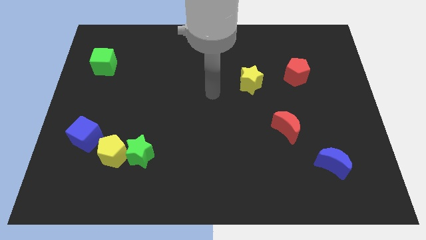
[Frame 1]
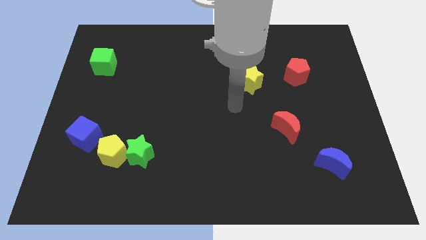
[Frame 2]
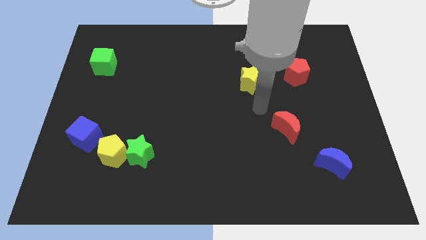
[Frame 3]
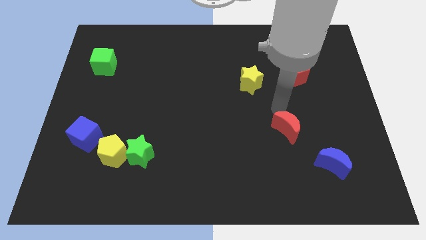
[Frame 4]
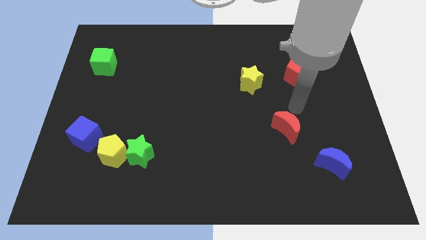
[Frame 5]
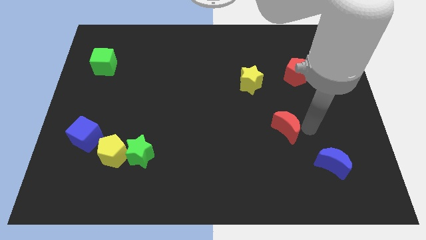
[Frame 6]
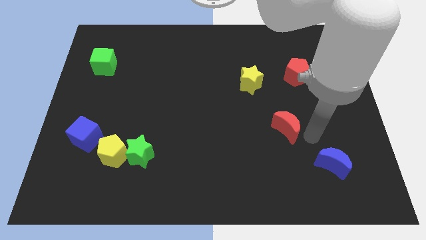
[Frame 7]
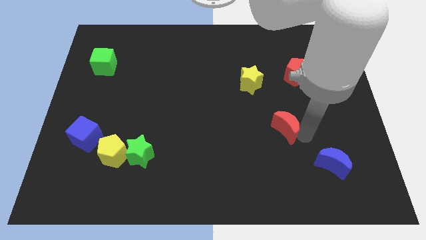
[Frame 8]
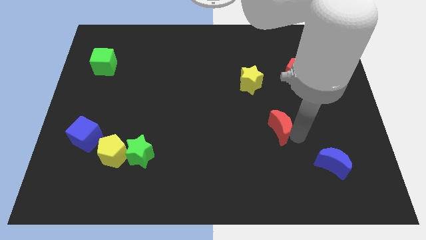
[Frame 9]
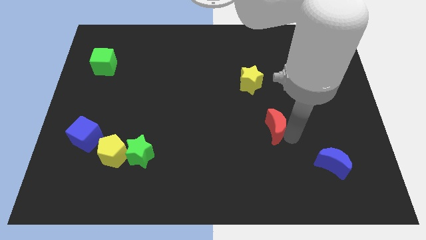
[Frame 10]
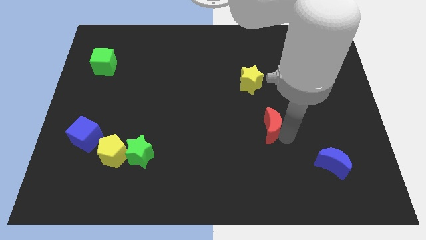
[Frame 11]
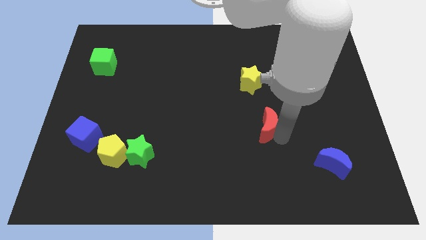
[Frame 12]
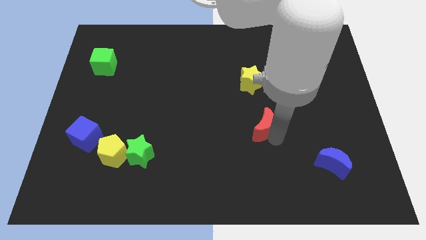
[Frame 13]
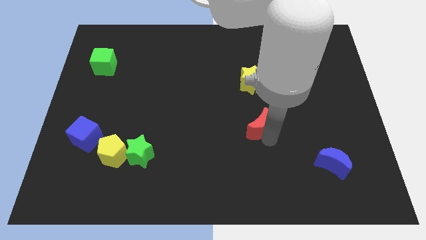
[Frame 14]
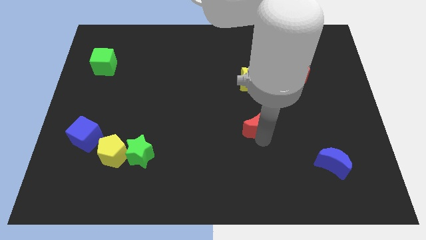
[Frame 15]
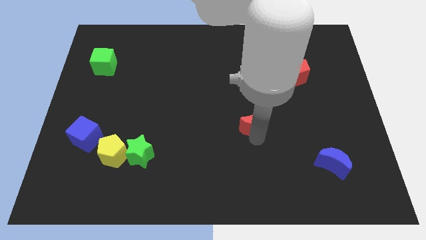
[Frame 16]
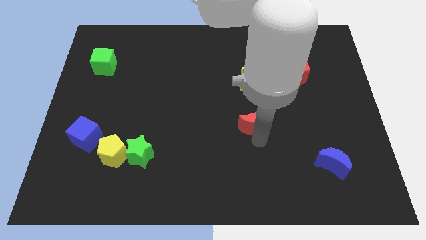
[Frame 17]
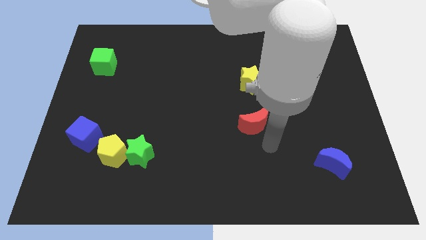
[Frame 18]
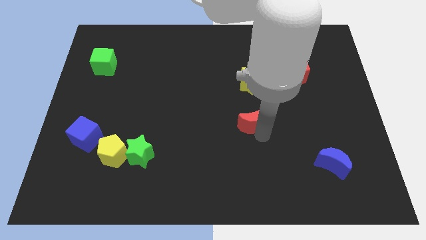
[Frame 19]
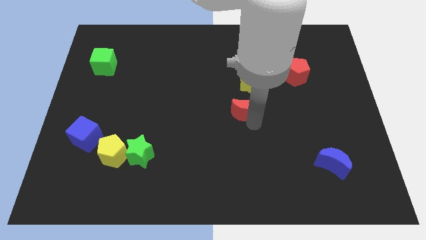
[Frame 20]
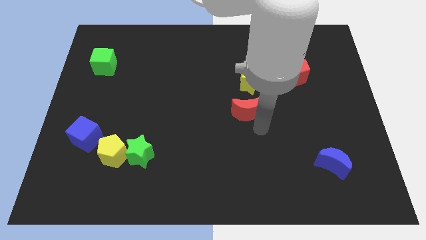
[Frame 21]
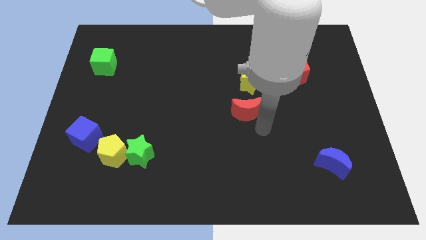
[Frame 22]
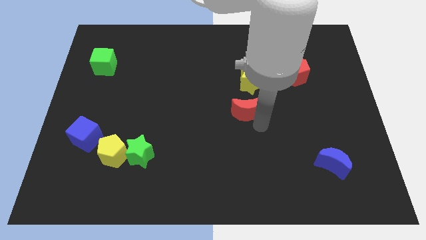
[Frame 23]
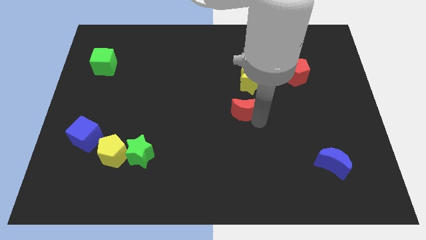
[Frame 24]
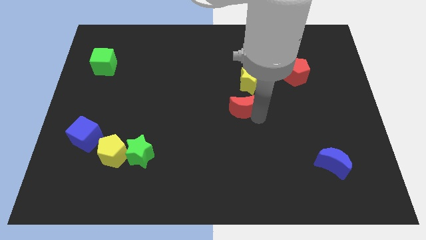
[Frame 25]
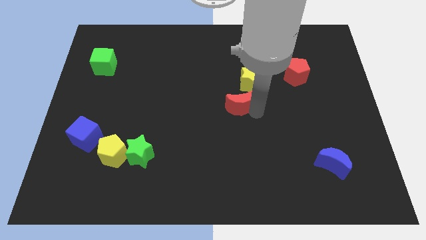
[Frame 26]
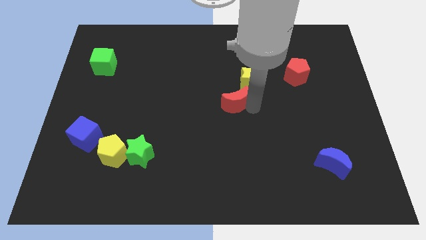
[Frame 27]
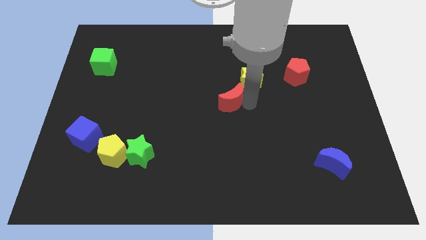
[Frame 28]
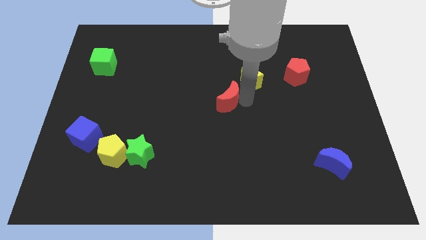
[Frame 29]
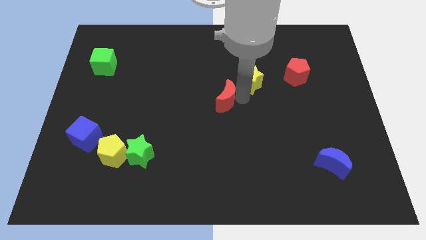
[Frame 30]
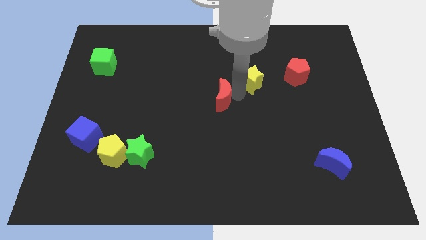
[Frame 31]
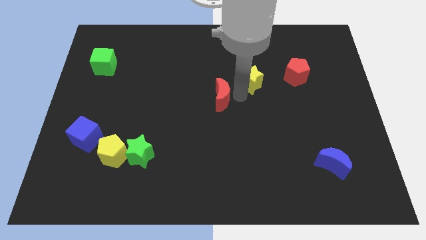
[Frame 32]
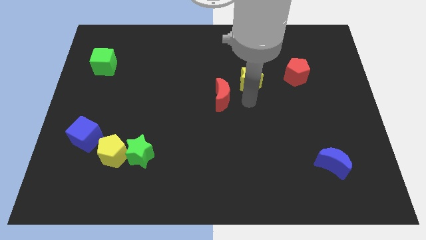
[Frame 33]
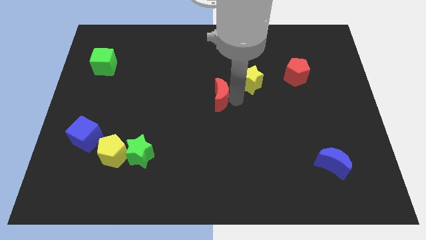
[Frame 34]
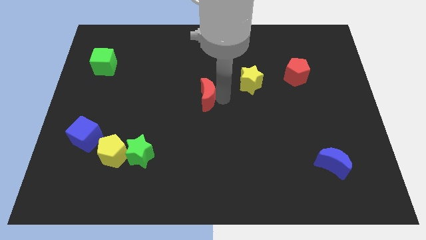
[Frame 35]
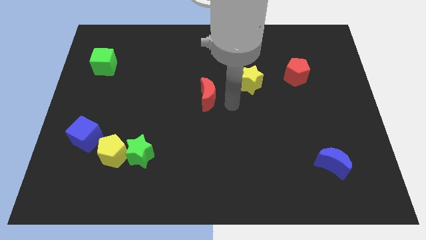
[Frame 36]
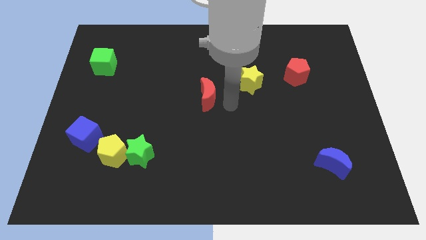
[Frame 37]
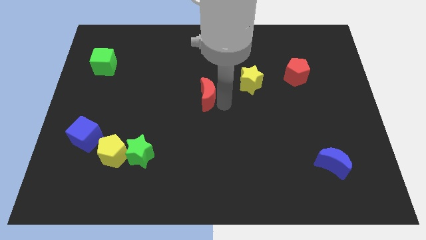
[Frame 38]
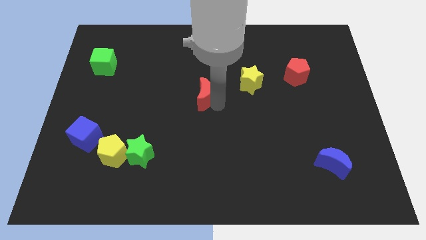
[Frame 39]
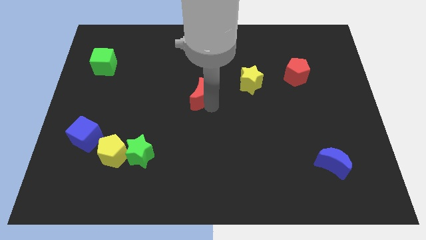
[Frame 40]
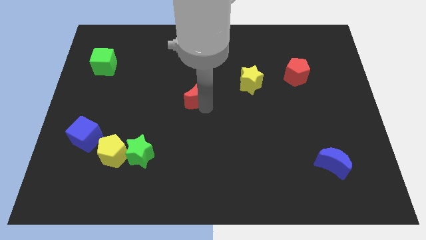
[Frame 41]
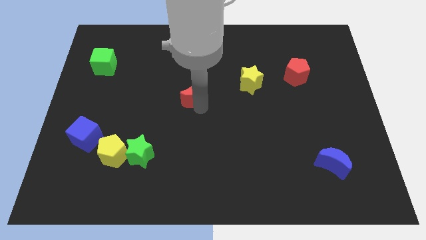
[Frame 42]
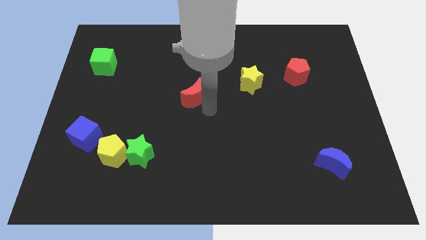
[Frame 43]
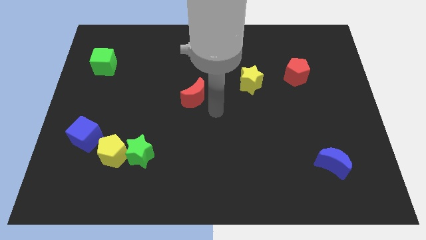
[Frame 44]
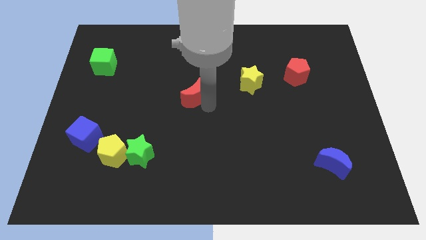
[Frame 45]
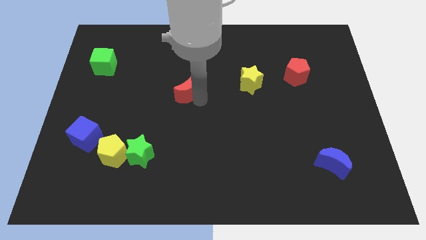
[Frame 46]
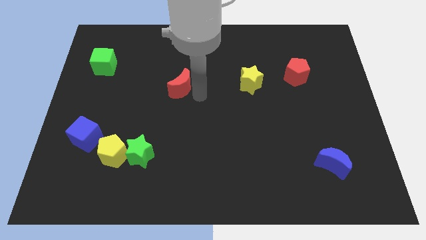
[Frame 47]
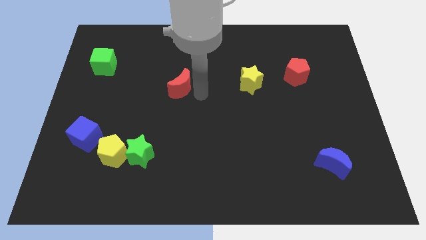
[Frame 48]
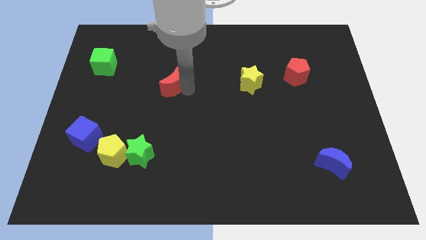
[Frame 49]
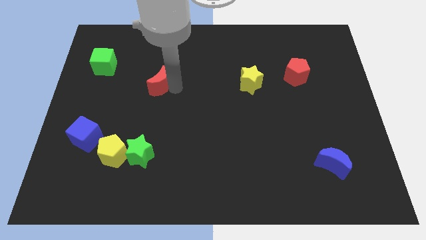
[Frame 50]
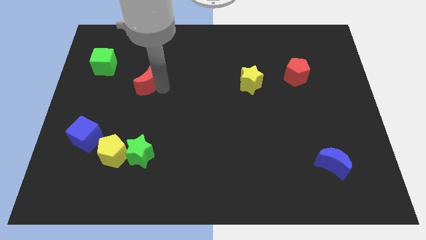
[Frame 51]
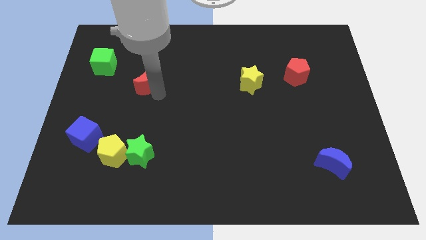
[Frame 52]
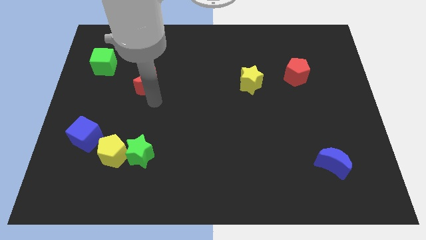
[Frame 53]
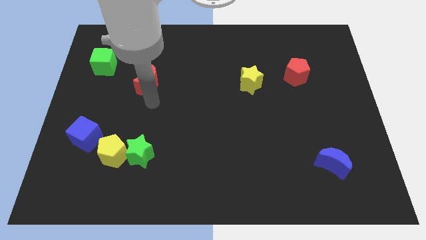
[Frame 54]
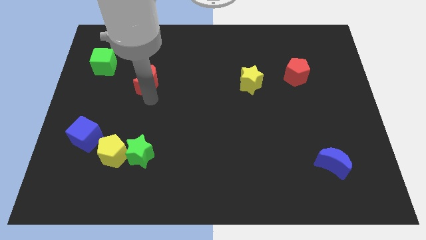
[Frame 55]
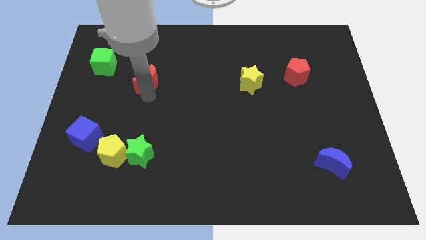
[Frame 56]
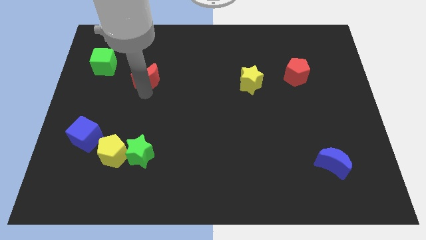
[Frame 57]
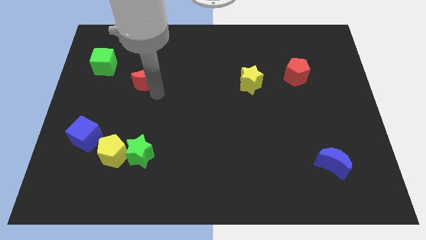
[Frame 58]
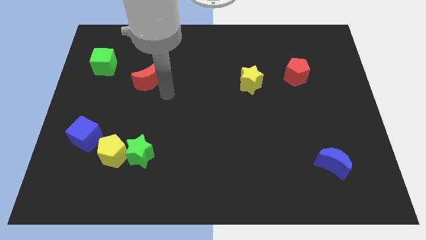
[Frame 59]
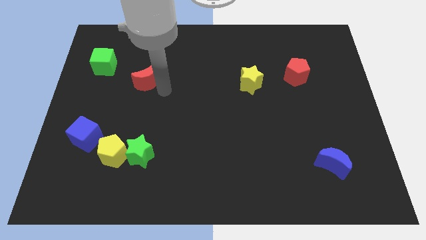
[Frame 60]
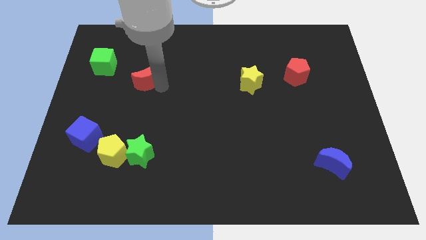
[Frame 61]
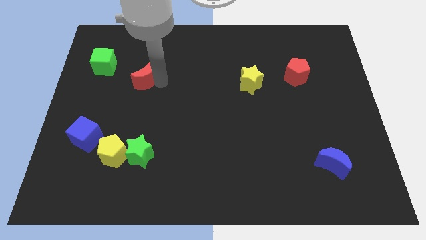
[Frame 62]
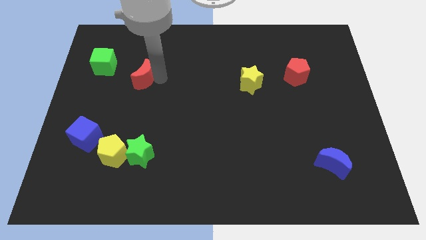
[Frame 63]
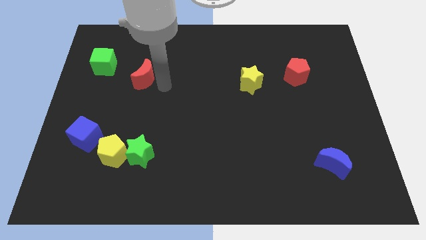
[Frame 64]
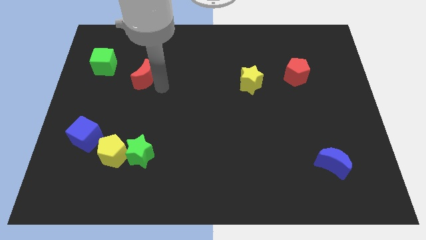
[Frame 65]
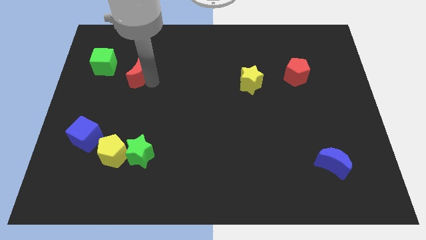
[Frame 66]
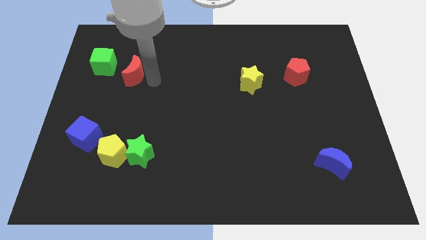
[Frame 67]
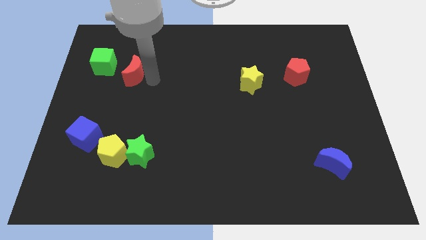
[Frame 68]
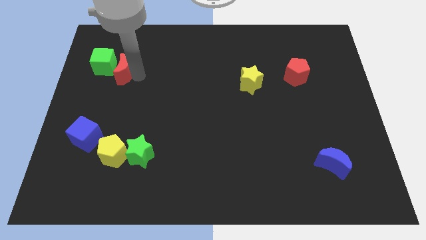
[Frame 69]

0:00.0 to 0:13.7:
slide the red moon close to the green cube
